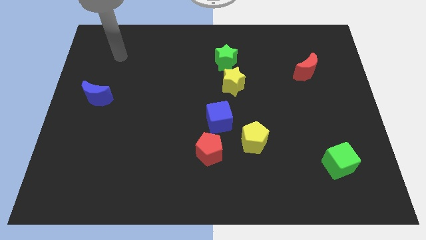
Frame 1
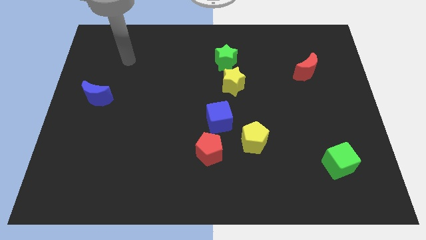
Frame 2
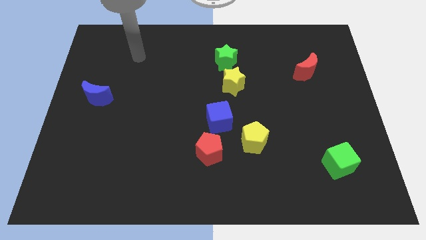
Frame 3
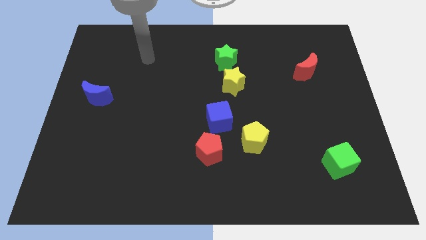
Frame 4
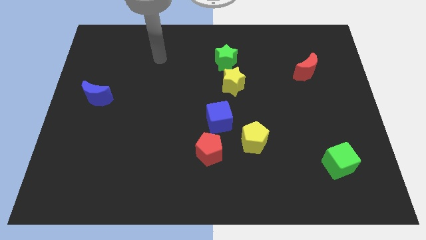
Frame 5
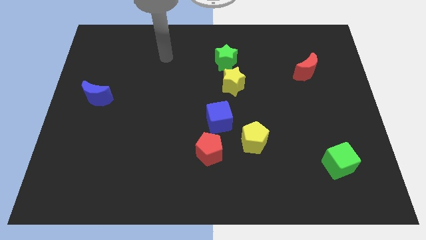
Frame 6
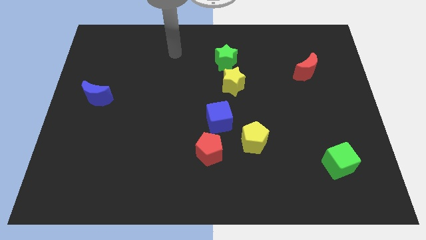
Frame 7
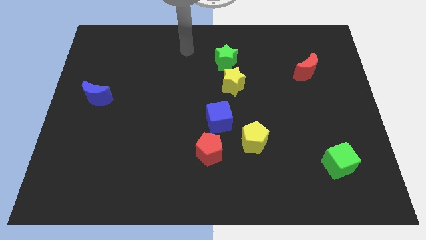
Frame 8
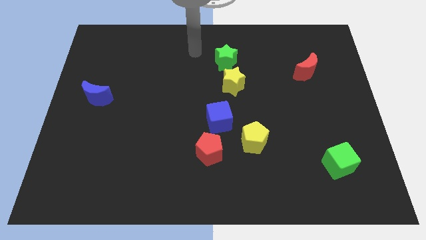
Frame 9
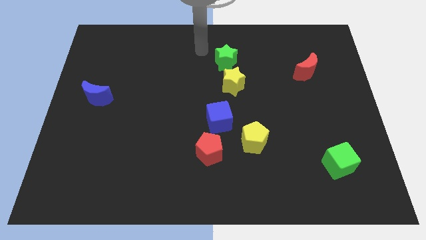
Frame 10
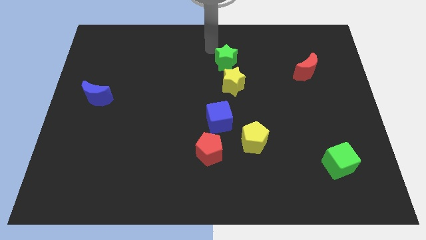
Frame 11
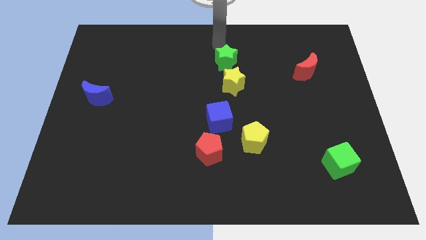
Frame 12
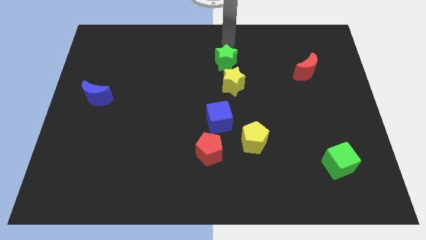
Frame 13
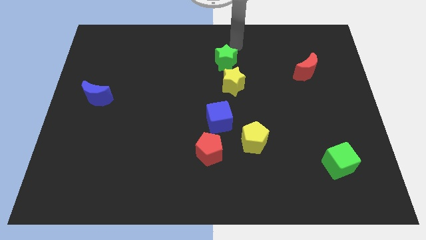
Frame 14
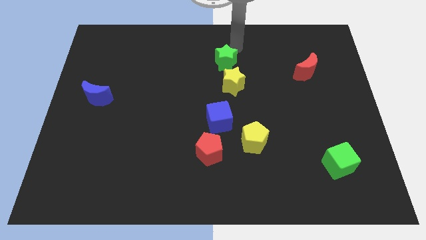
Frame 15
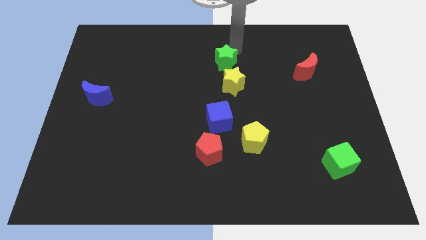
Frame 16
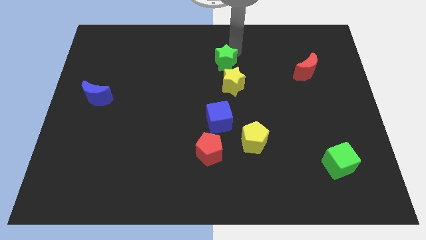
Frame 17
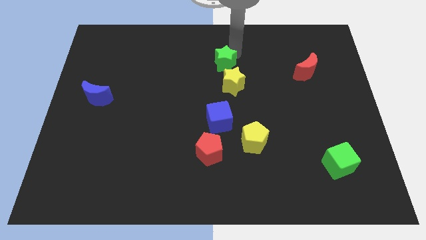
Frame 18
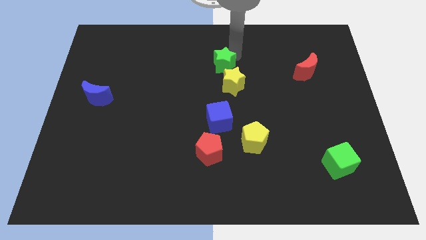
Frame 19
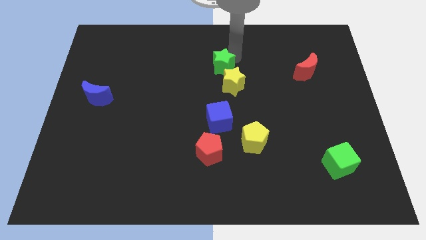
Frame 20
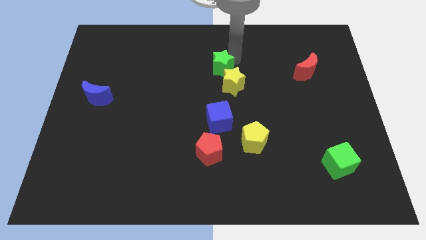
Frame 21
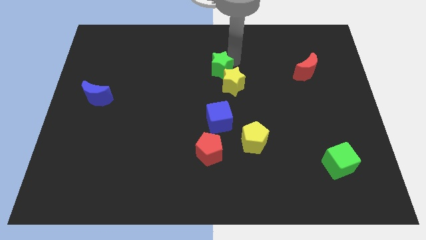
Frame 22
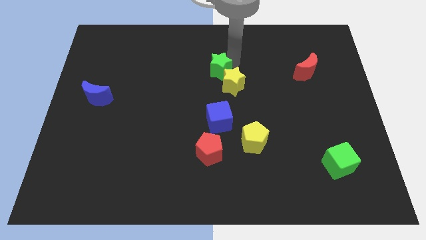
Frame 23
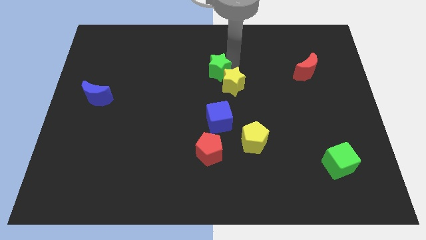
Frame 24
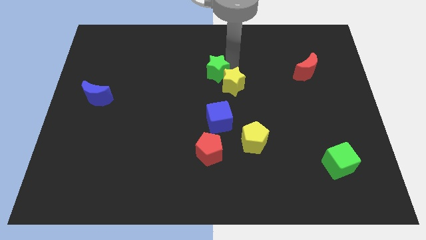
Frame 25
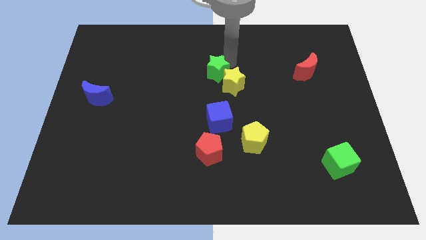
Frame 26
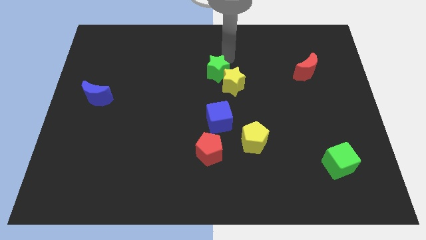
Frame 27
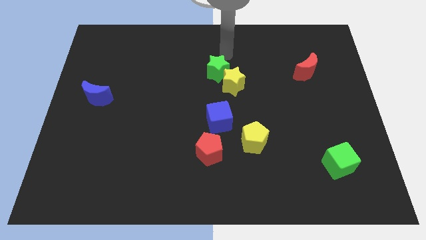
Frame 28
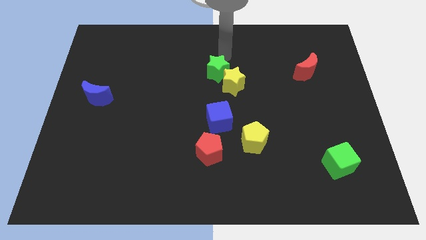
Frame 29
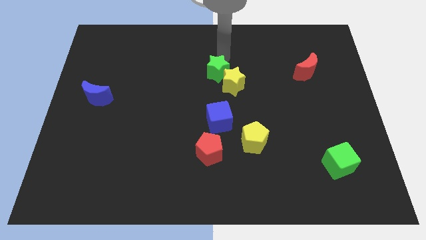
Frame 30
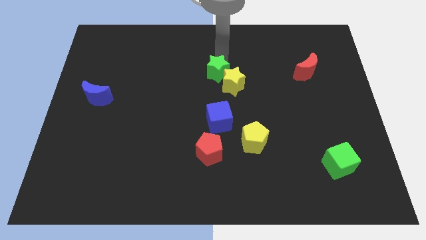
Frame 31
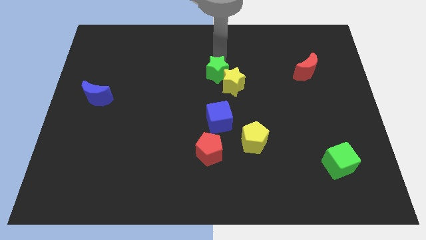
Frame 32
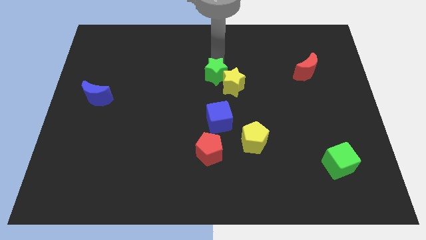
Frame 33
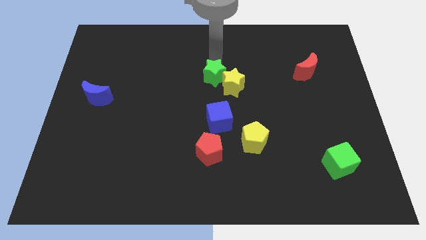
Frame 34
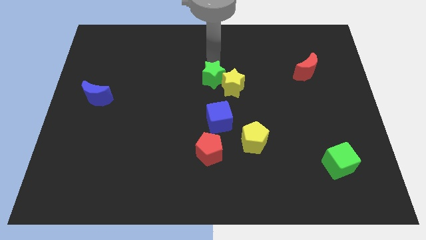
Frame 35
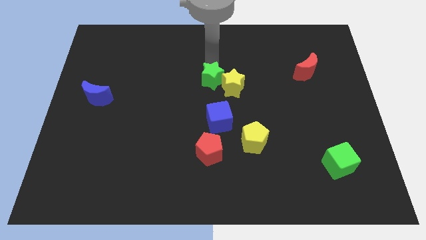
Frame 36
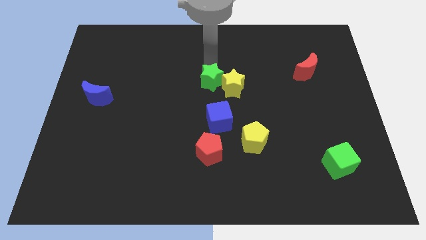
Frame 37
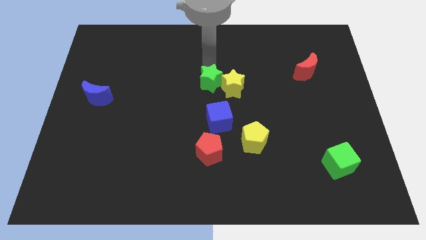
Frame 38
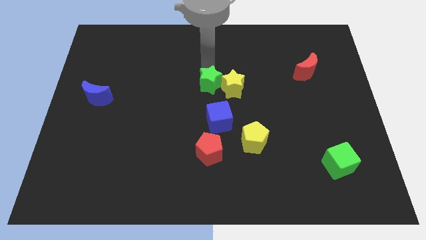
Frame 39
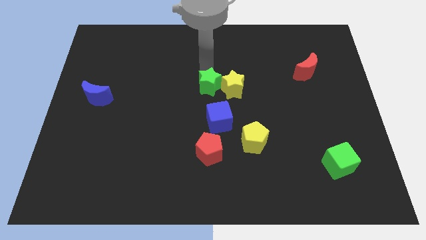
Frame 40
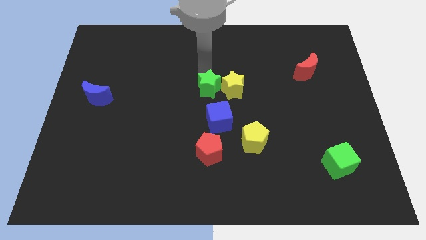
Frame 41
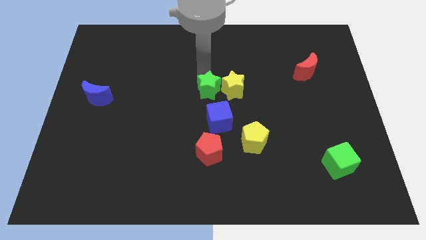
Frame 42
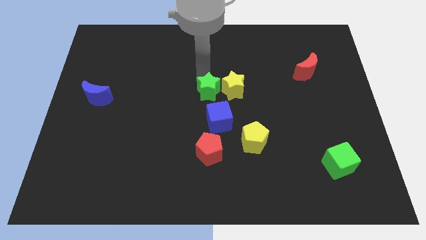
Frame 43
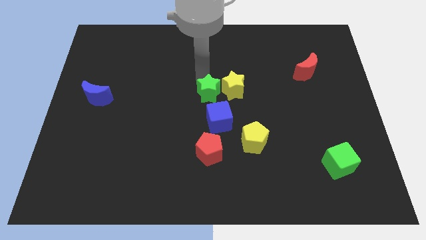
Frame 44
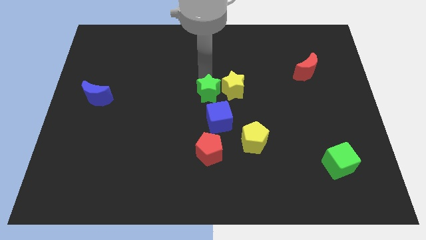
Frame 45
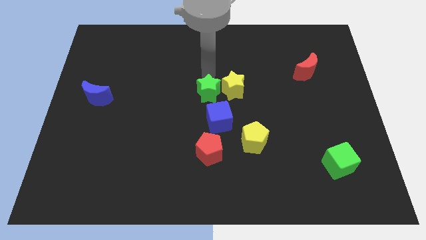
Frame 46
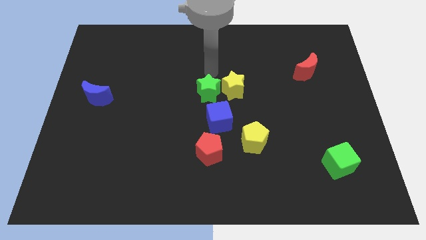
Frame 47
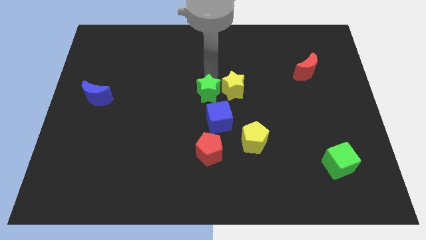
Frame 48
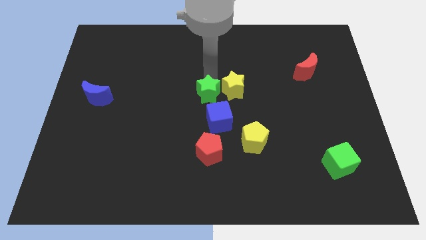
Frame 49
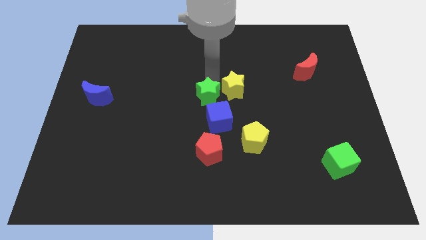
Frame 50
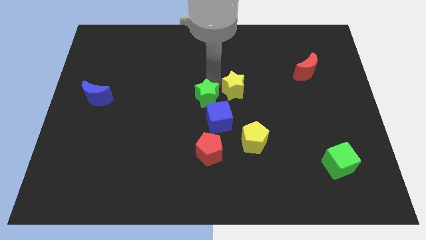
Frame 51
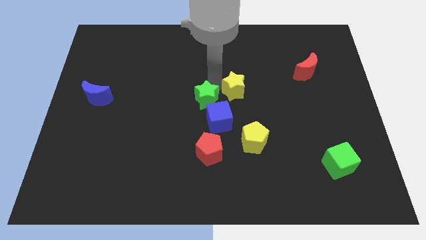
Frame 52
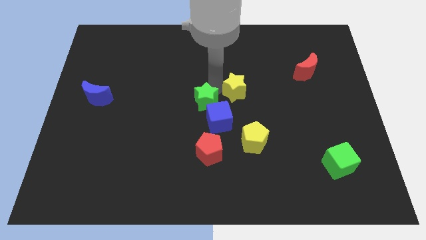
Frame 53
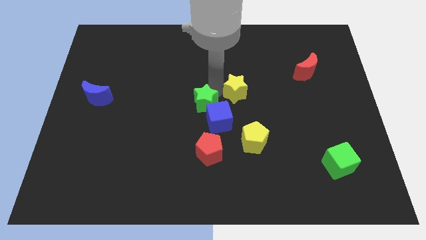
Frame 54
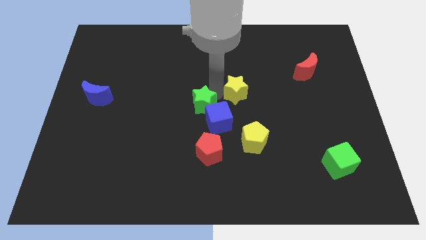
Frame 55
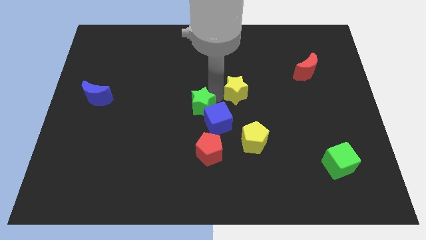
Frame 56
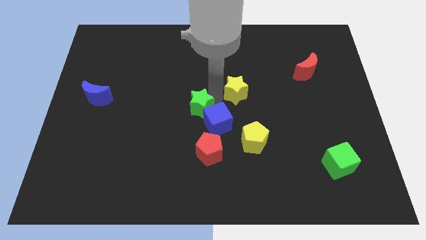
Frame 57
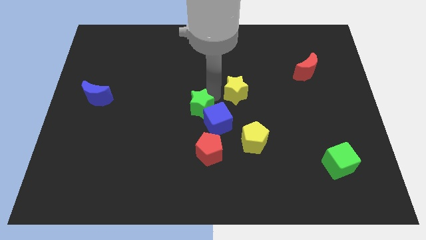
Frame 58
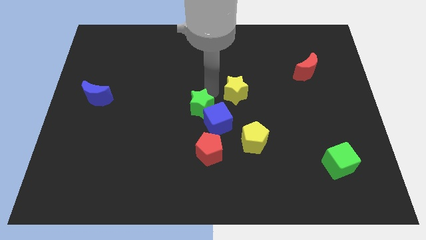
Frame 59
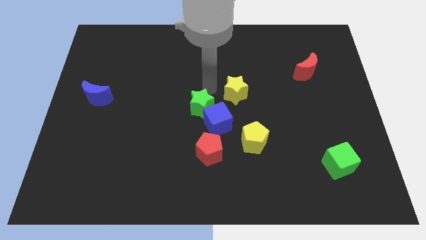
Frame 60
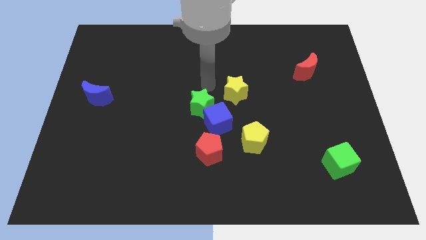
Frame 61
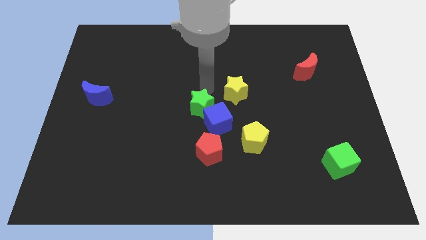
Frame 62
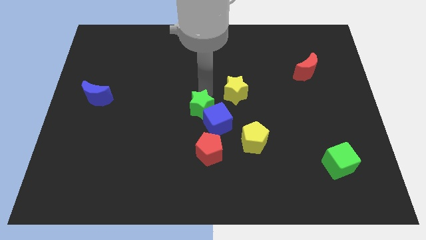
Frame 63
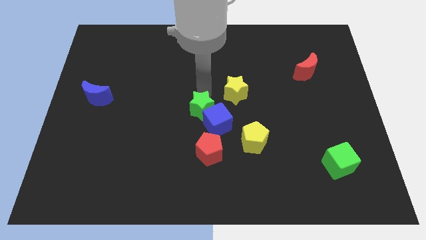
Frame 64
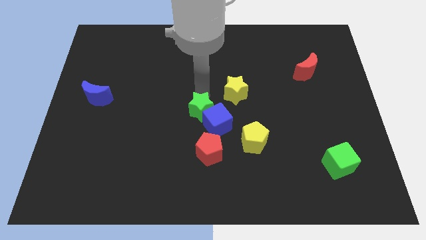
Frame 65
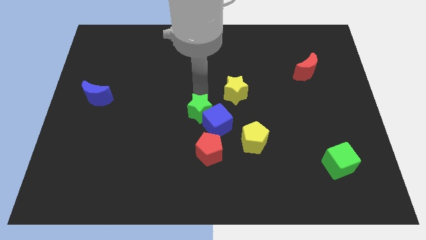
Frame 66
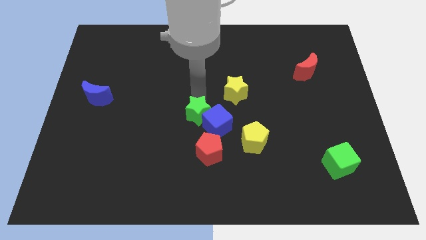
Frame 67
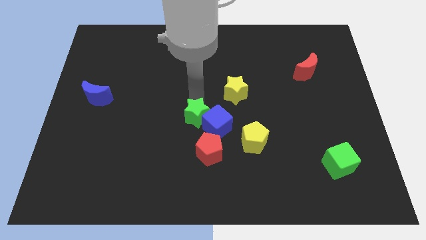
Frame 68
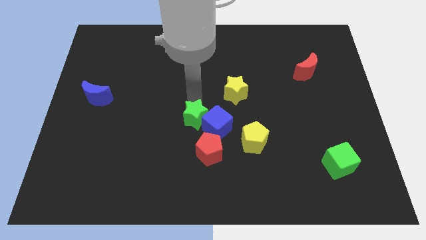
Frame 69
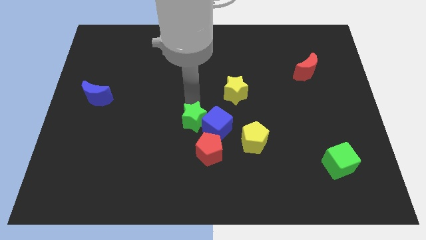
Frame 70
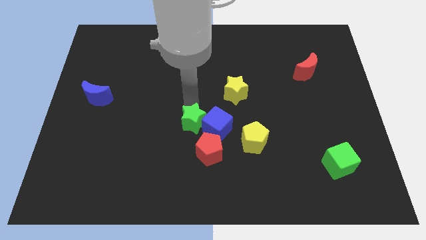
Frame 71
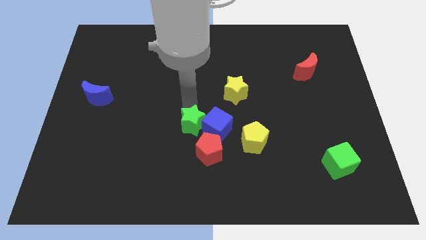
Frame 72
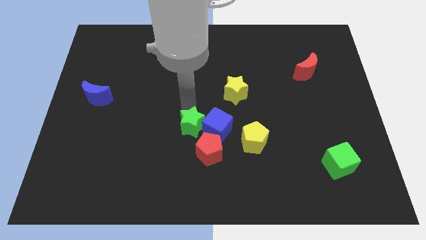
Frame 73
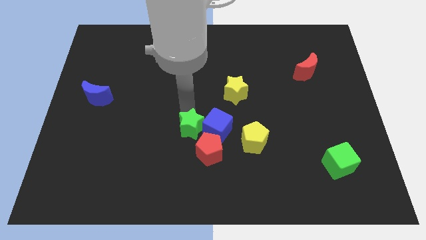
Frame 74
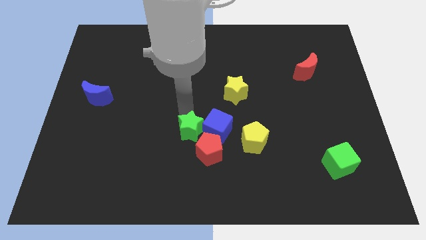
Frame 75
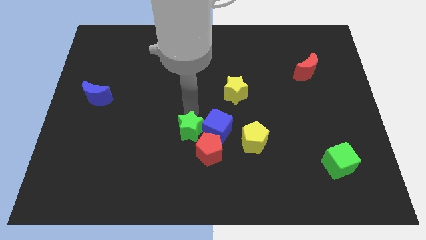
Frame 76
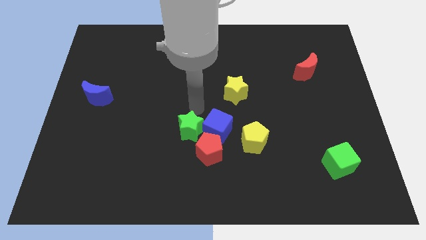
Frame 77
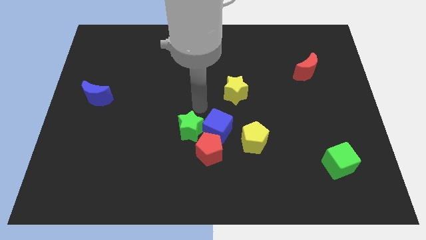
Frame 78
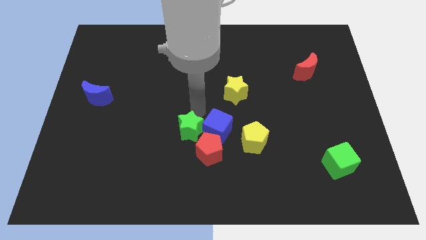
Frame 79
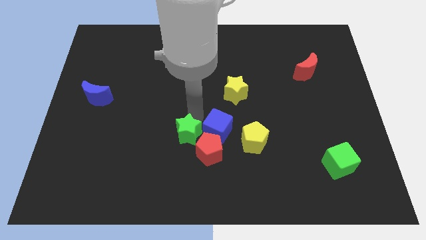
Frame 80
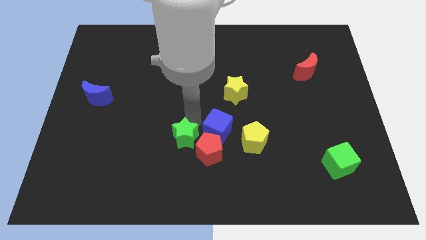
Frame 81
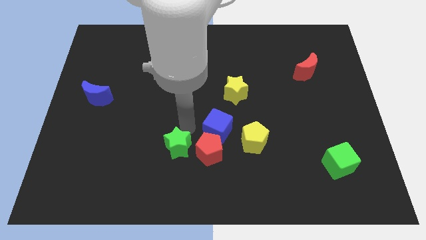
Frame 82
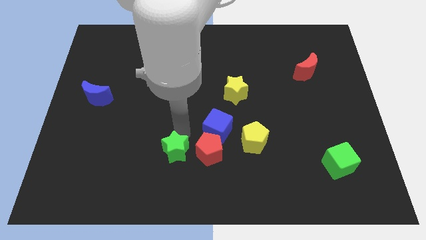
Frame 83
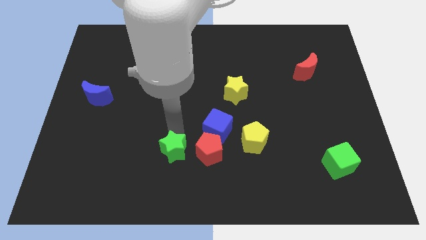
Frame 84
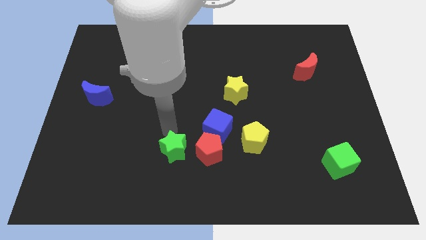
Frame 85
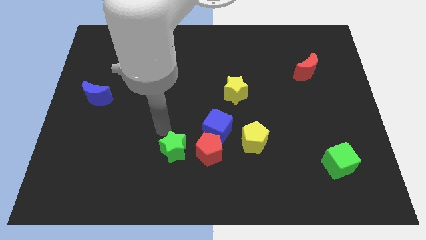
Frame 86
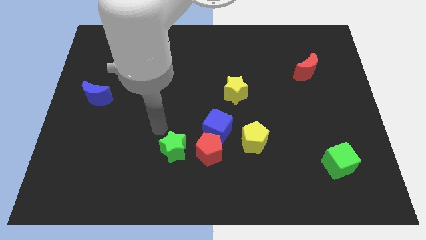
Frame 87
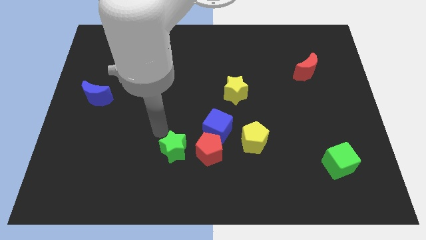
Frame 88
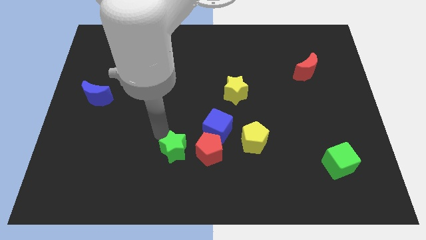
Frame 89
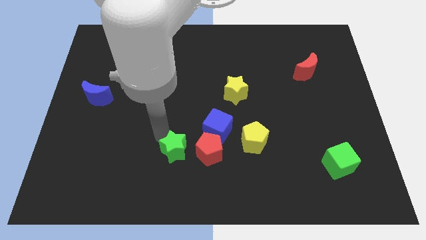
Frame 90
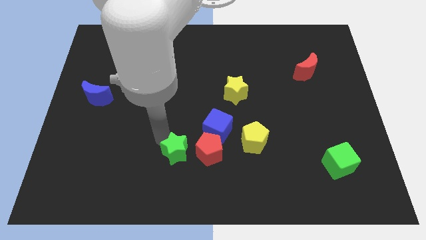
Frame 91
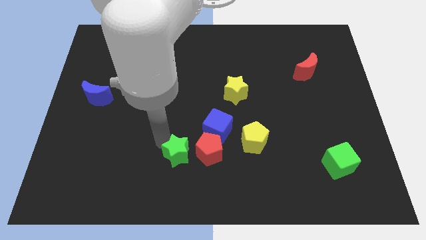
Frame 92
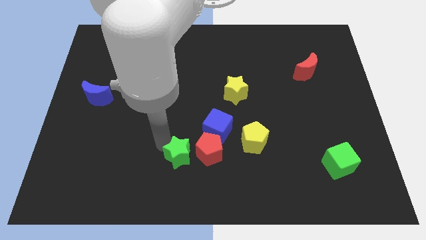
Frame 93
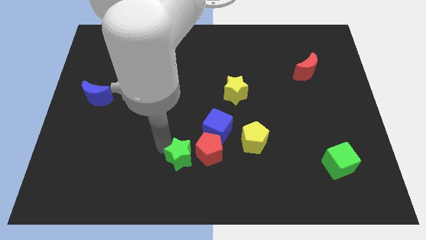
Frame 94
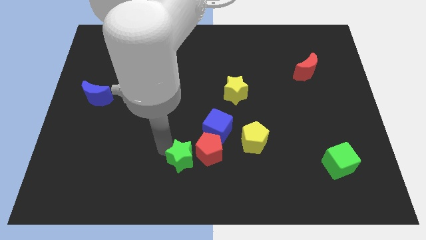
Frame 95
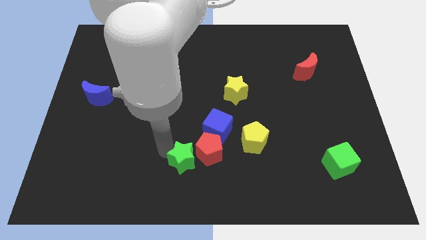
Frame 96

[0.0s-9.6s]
put the green star to the bottom side
